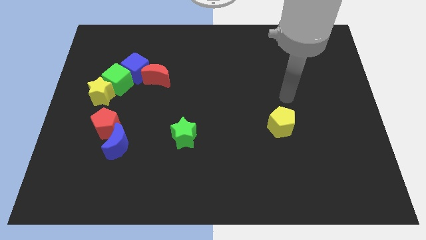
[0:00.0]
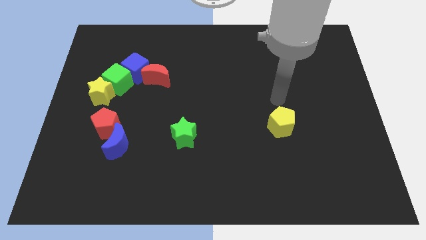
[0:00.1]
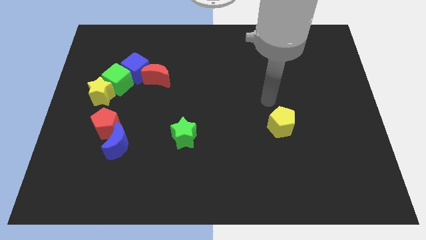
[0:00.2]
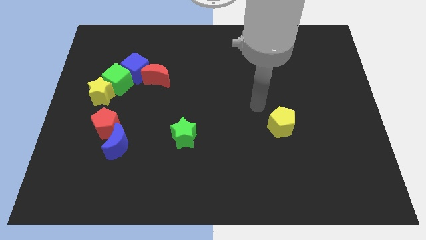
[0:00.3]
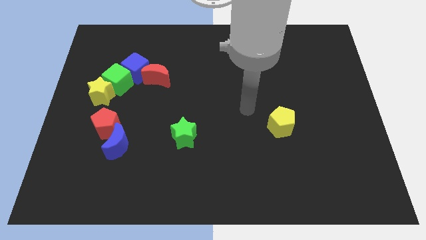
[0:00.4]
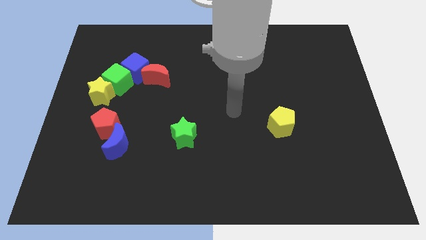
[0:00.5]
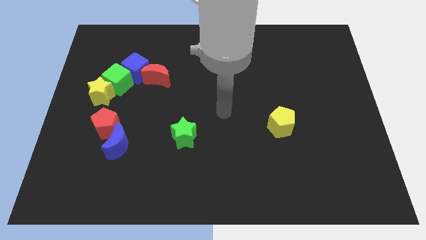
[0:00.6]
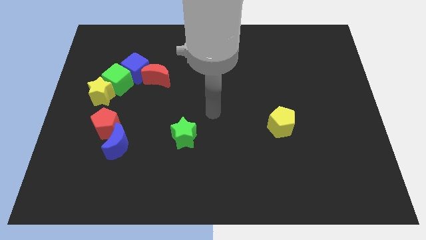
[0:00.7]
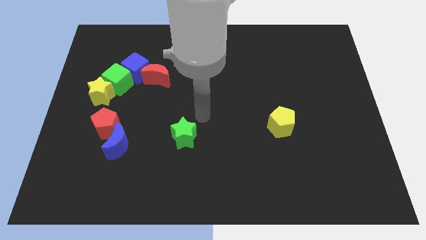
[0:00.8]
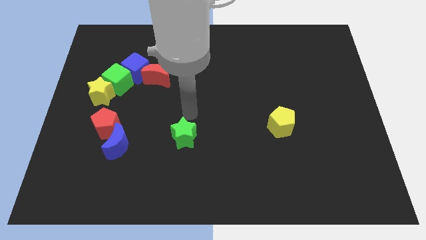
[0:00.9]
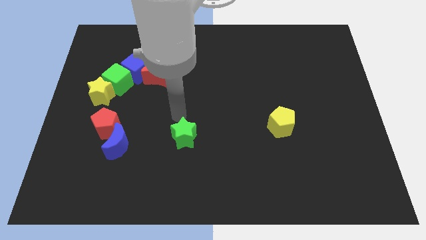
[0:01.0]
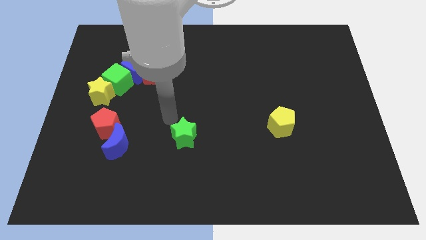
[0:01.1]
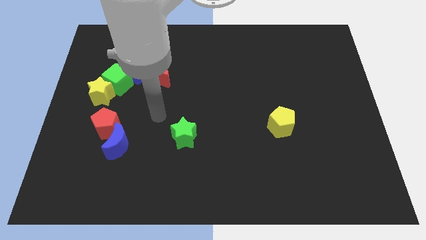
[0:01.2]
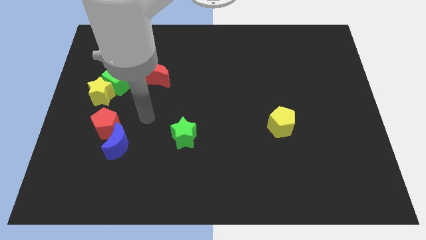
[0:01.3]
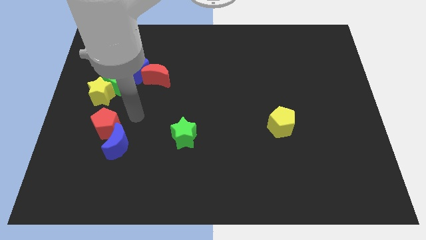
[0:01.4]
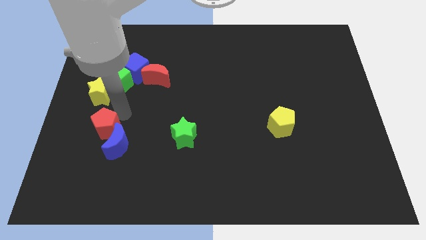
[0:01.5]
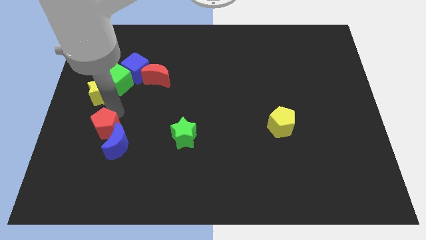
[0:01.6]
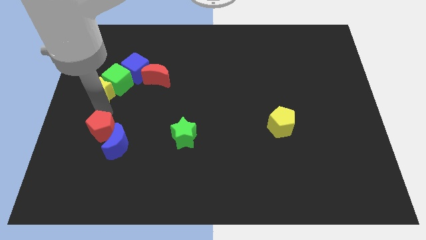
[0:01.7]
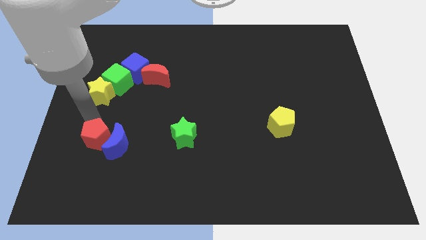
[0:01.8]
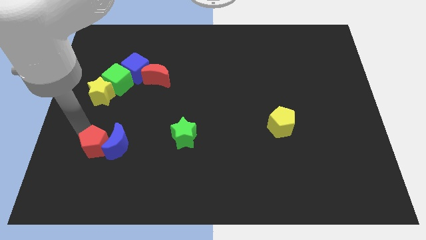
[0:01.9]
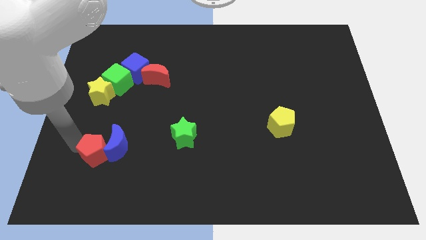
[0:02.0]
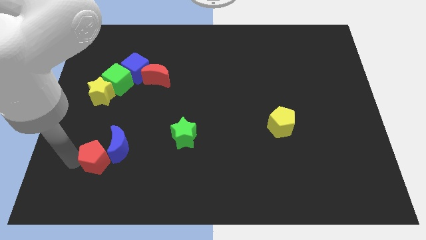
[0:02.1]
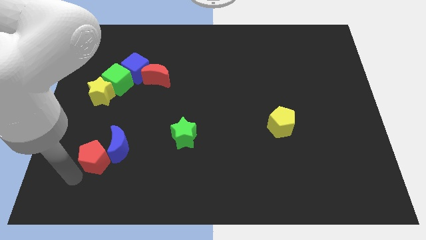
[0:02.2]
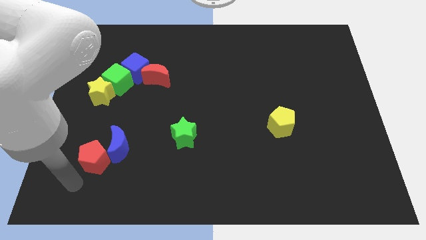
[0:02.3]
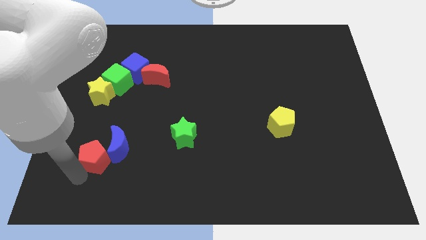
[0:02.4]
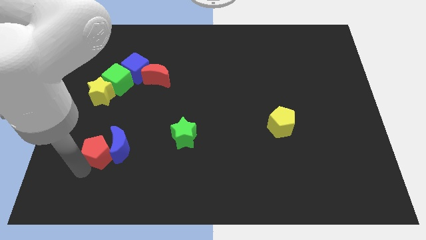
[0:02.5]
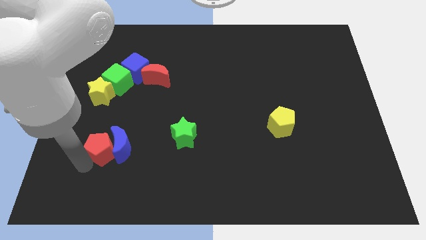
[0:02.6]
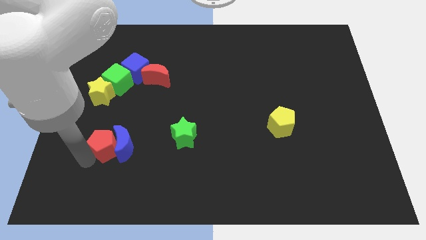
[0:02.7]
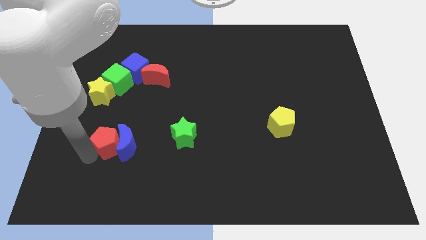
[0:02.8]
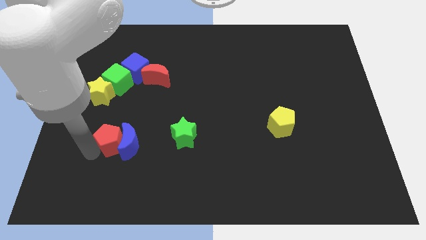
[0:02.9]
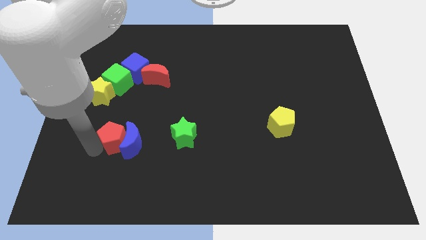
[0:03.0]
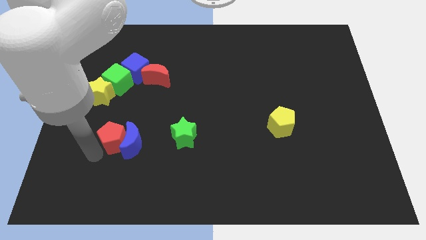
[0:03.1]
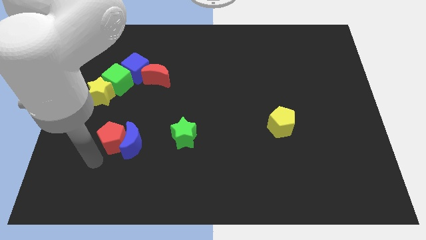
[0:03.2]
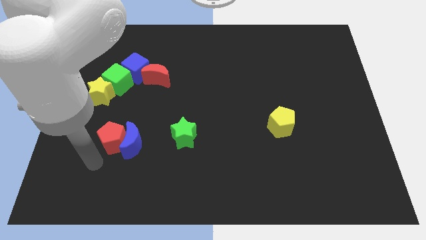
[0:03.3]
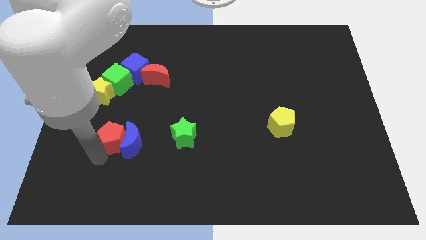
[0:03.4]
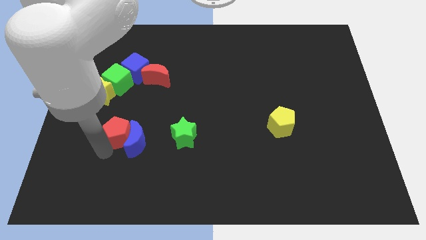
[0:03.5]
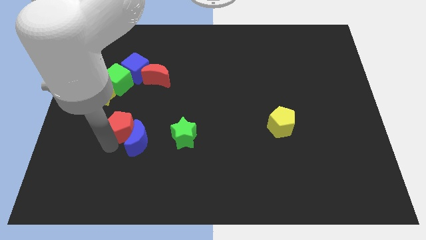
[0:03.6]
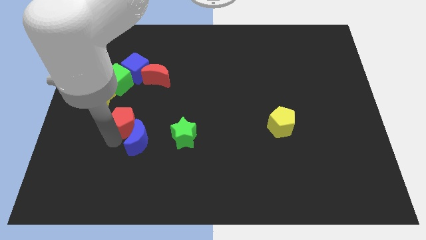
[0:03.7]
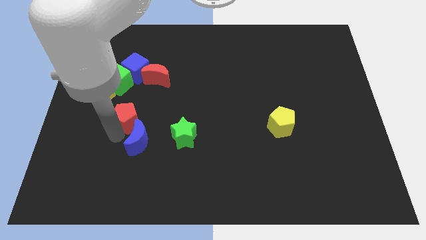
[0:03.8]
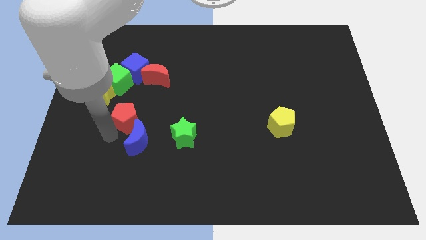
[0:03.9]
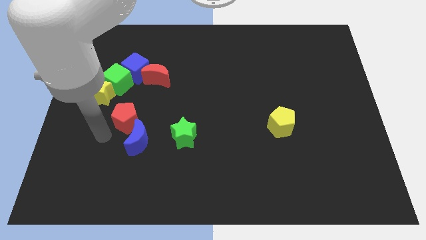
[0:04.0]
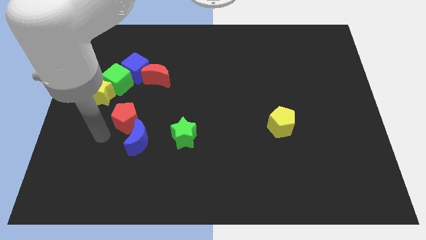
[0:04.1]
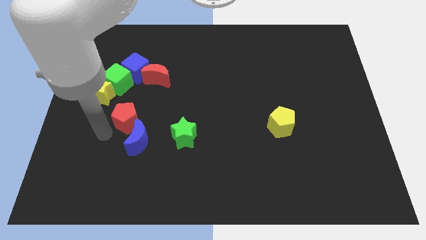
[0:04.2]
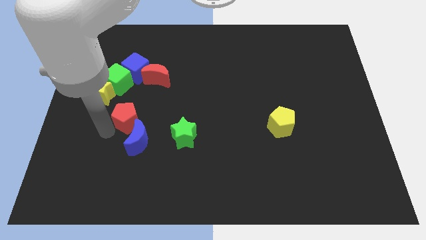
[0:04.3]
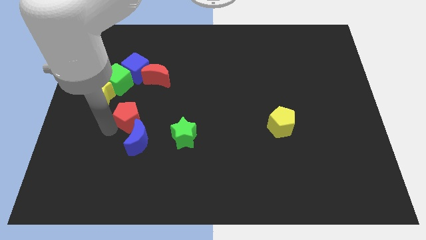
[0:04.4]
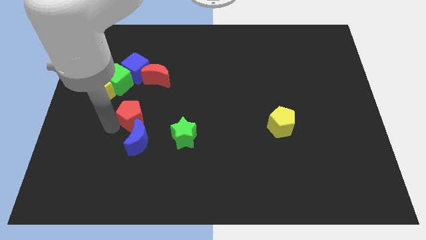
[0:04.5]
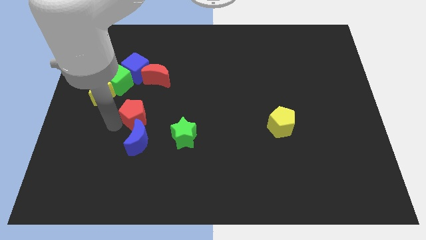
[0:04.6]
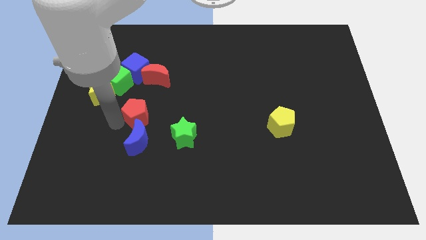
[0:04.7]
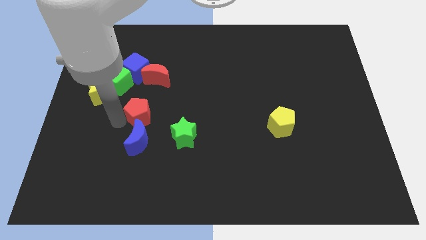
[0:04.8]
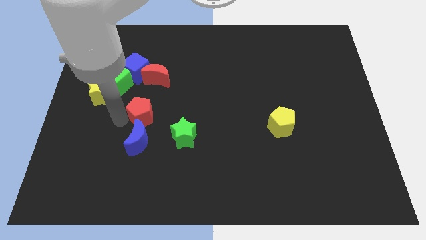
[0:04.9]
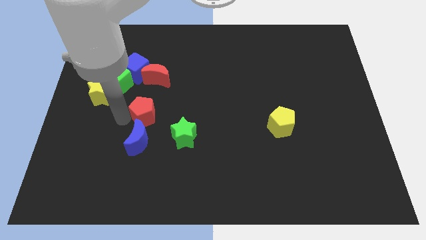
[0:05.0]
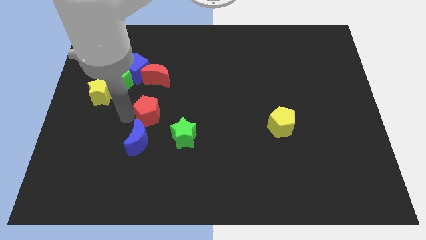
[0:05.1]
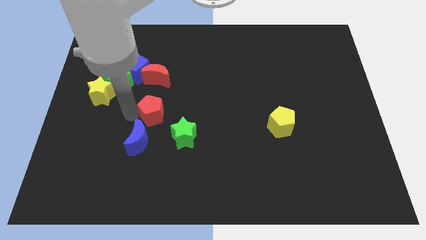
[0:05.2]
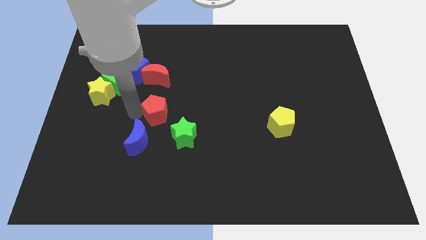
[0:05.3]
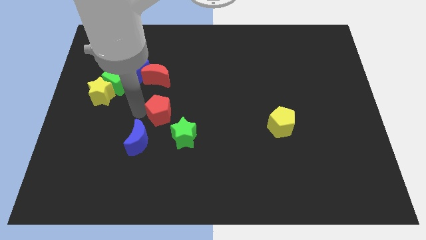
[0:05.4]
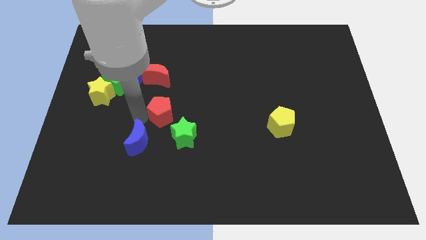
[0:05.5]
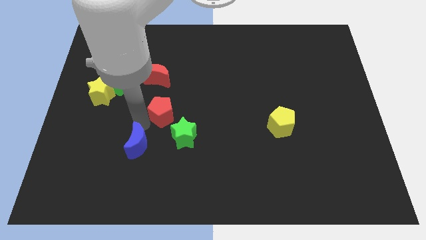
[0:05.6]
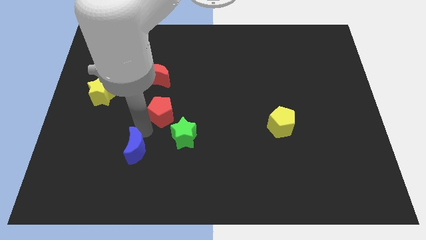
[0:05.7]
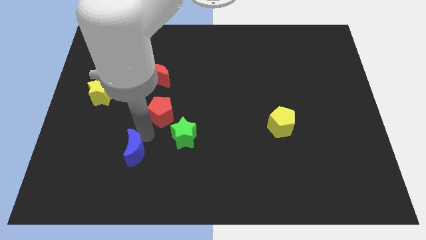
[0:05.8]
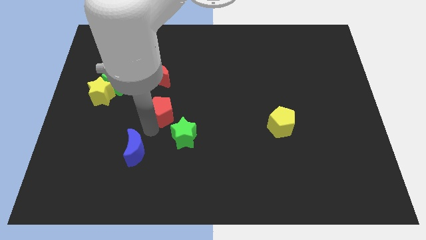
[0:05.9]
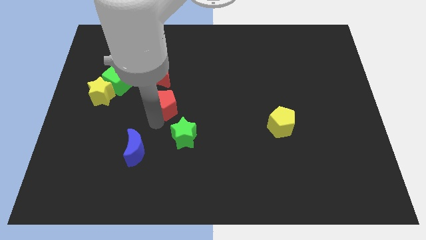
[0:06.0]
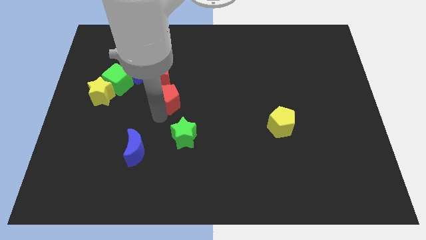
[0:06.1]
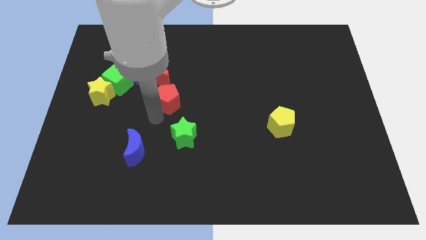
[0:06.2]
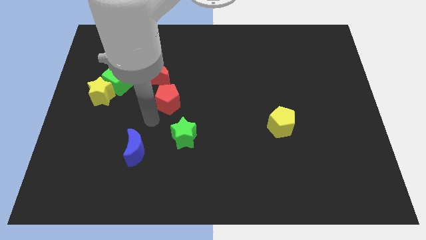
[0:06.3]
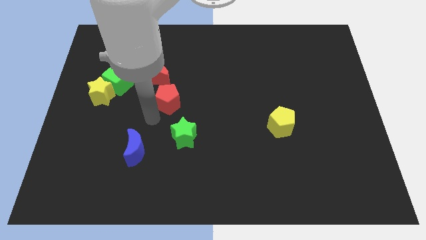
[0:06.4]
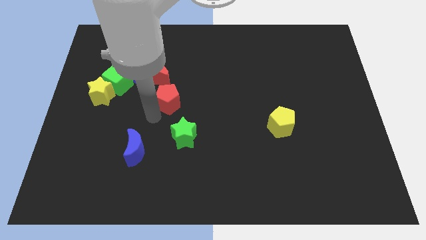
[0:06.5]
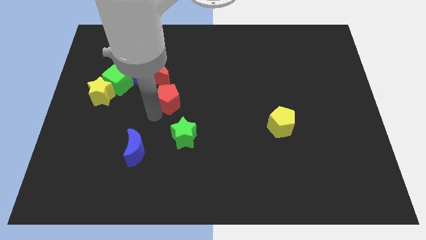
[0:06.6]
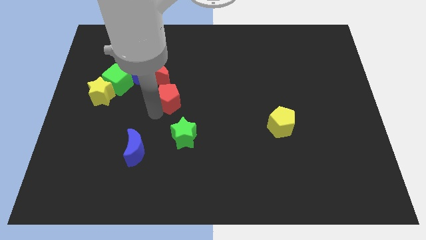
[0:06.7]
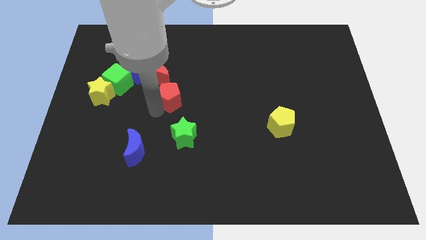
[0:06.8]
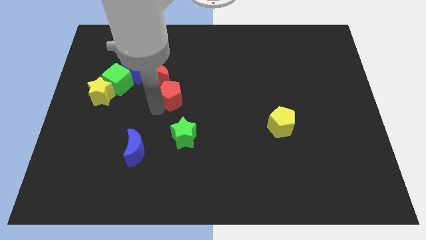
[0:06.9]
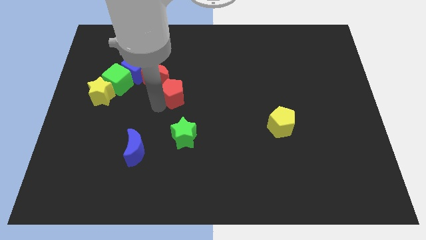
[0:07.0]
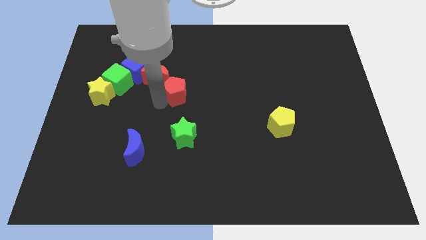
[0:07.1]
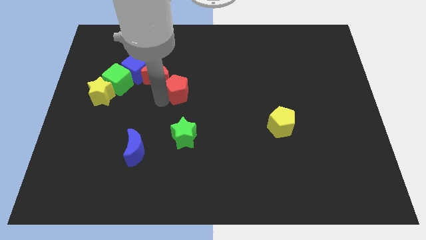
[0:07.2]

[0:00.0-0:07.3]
slide the red pentagon to the right of the red moon
